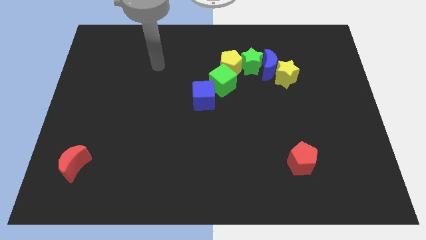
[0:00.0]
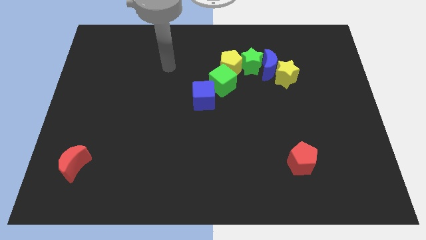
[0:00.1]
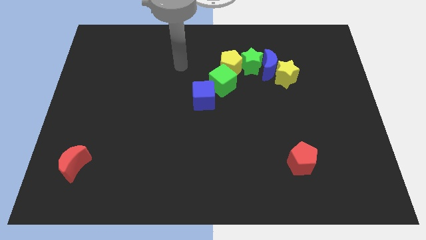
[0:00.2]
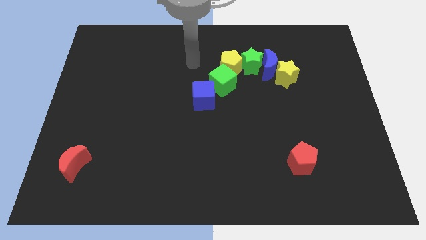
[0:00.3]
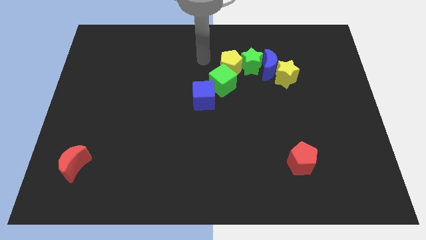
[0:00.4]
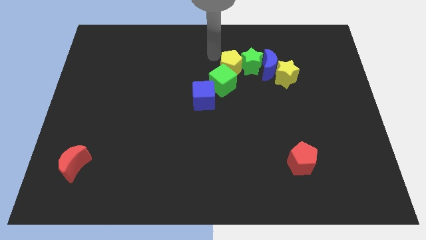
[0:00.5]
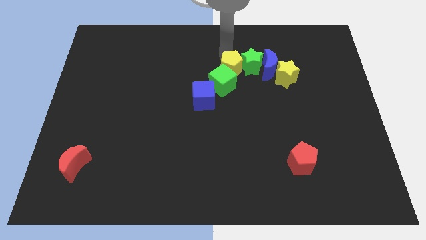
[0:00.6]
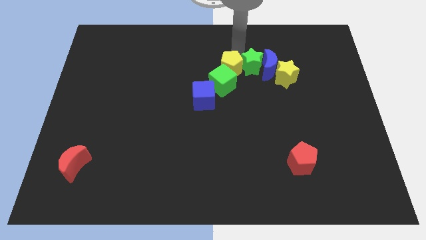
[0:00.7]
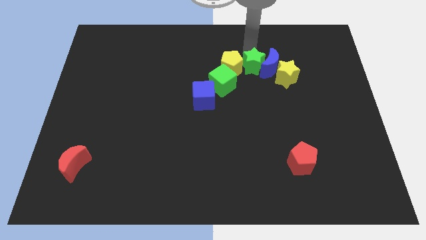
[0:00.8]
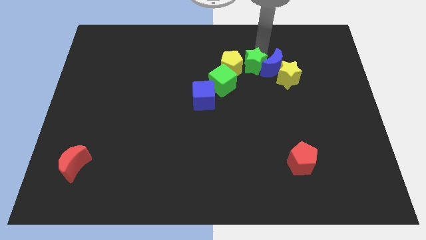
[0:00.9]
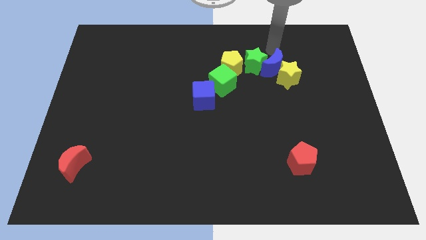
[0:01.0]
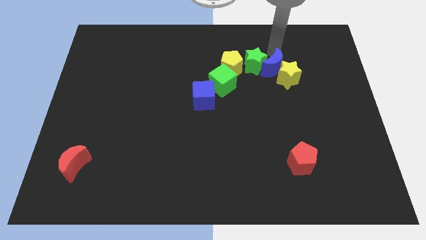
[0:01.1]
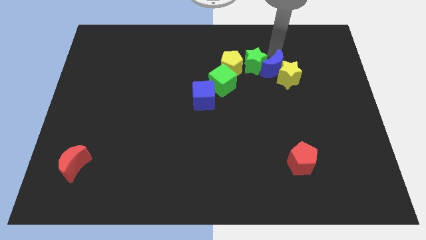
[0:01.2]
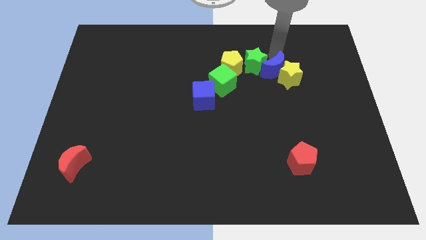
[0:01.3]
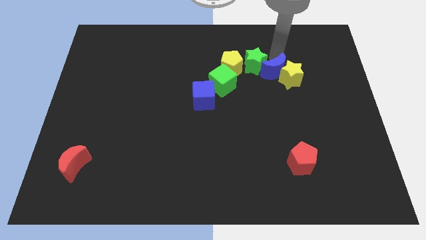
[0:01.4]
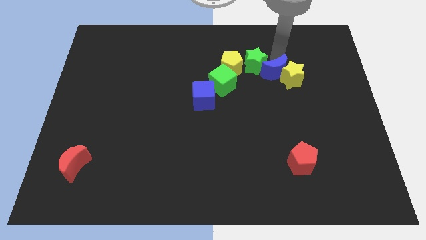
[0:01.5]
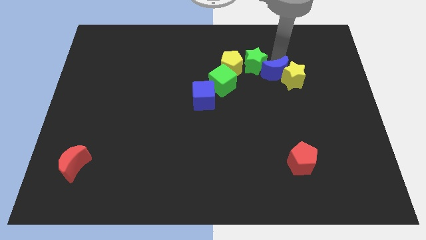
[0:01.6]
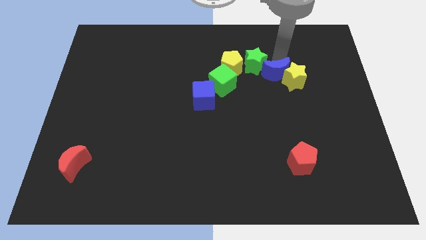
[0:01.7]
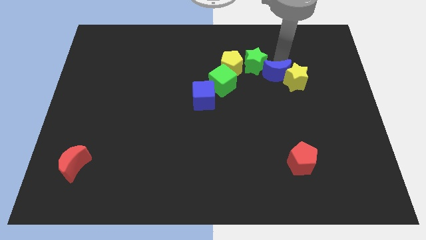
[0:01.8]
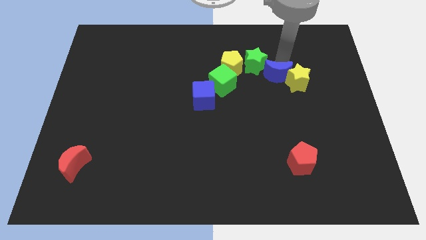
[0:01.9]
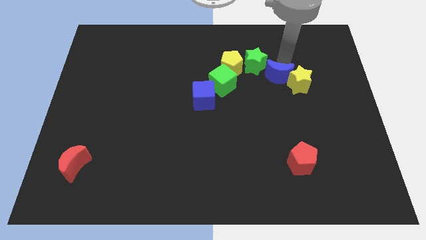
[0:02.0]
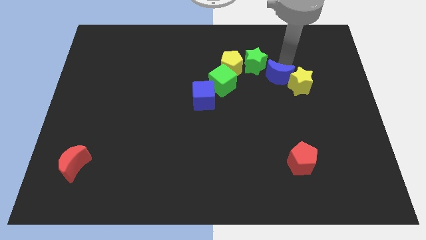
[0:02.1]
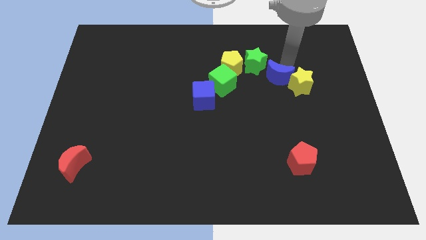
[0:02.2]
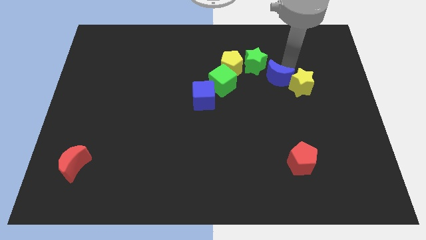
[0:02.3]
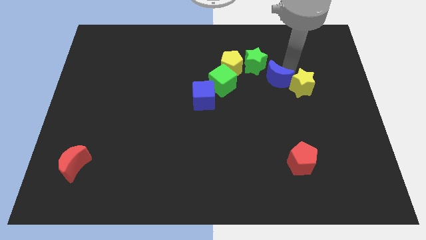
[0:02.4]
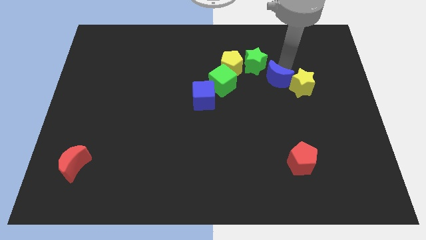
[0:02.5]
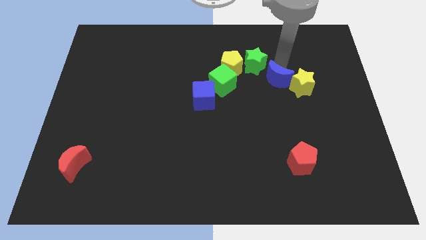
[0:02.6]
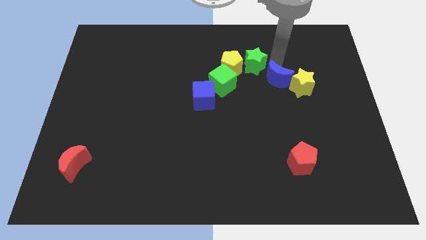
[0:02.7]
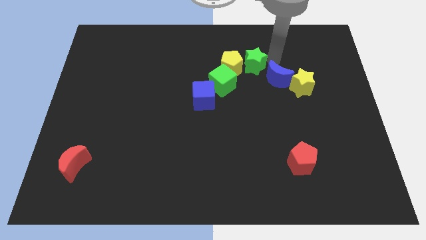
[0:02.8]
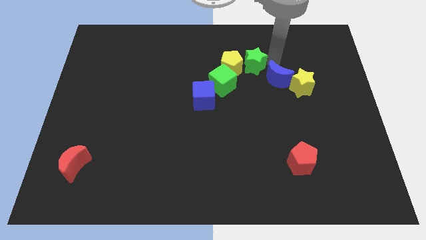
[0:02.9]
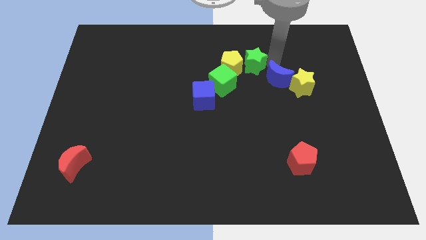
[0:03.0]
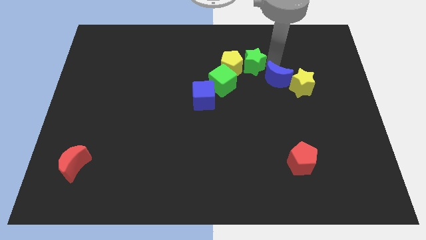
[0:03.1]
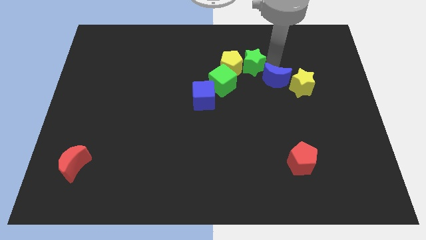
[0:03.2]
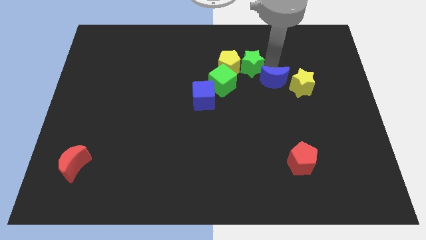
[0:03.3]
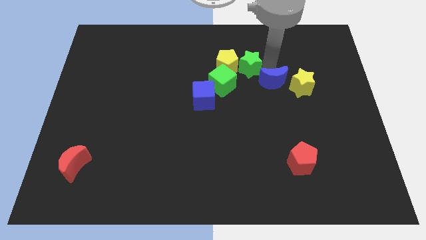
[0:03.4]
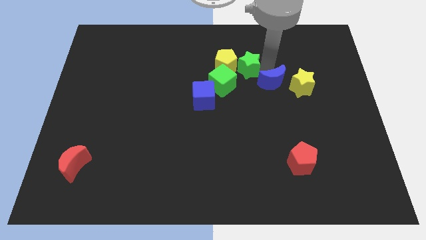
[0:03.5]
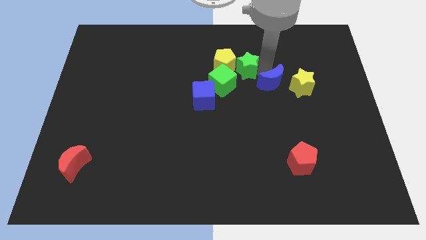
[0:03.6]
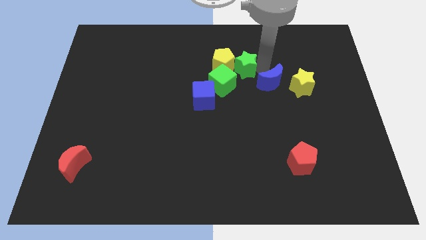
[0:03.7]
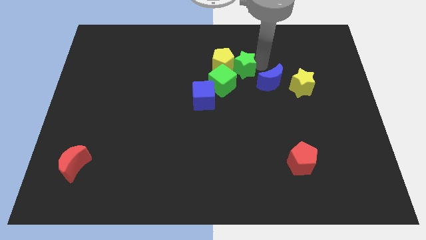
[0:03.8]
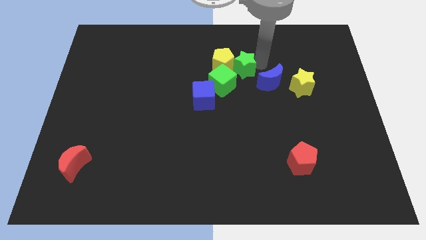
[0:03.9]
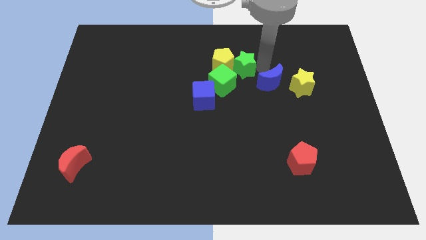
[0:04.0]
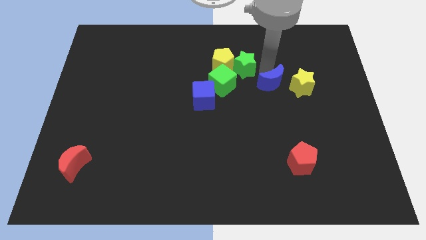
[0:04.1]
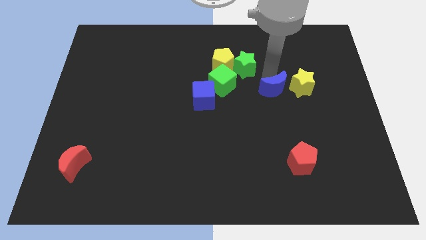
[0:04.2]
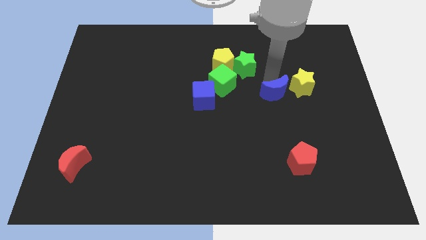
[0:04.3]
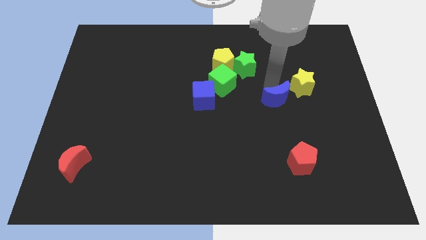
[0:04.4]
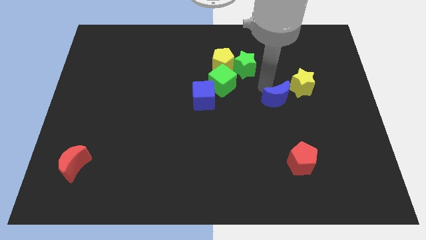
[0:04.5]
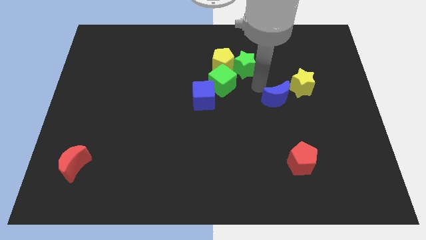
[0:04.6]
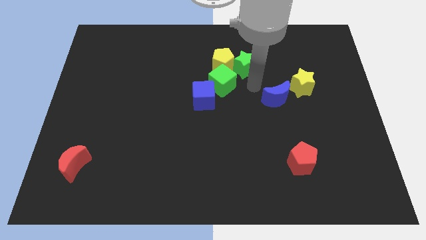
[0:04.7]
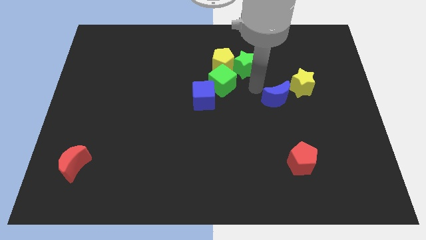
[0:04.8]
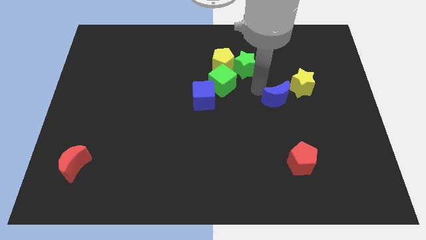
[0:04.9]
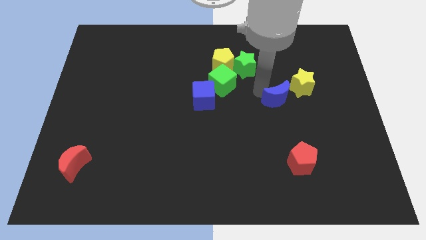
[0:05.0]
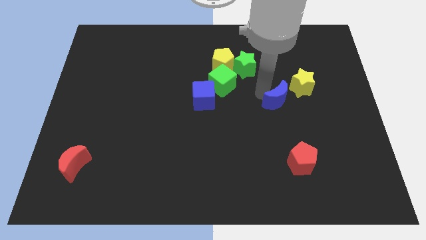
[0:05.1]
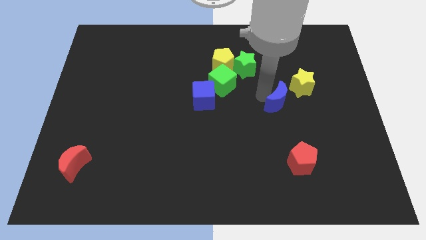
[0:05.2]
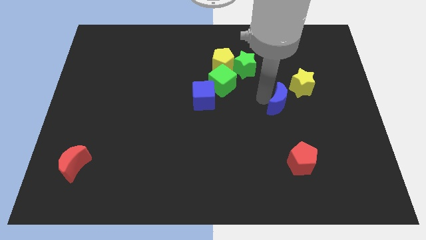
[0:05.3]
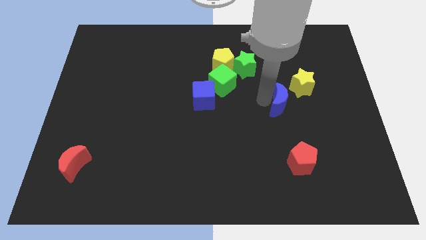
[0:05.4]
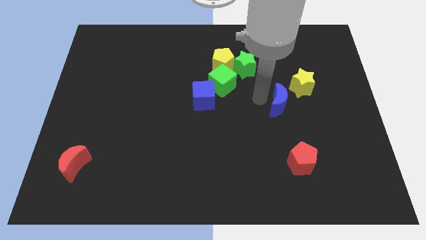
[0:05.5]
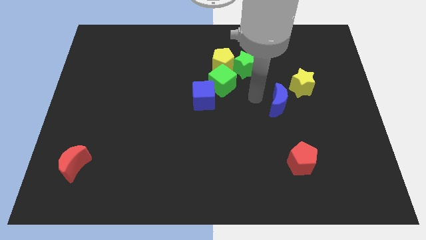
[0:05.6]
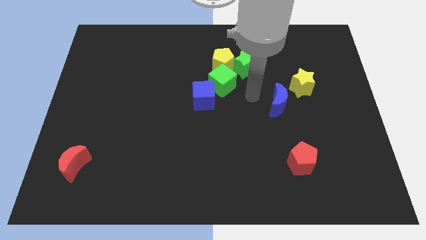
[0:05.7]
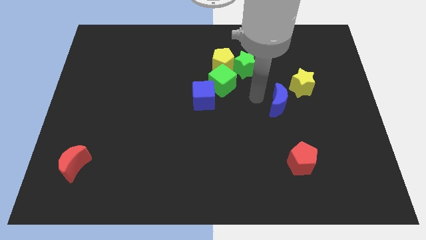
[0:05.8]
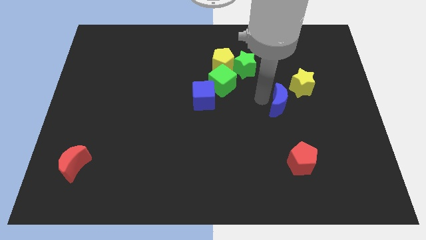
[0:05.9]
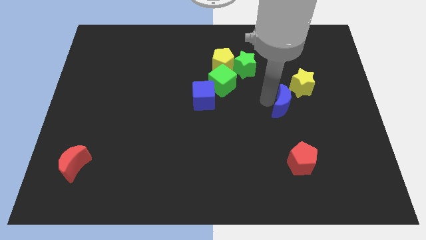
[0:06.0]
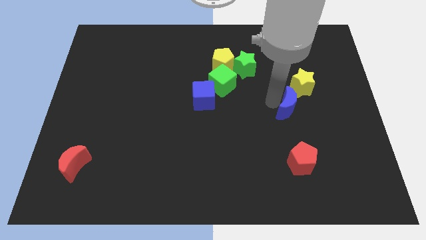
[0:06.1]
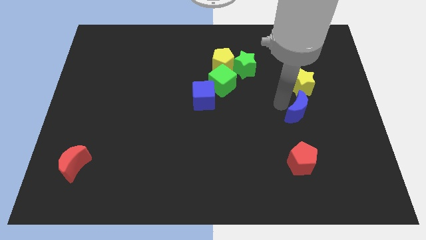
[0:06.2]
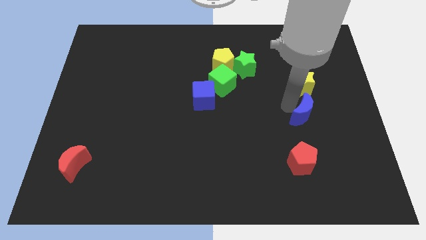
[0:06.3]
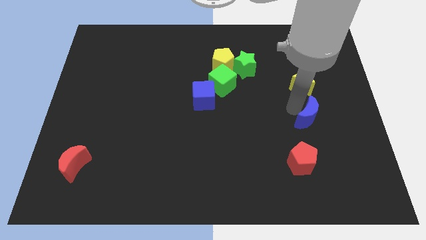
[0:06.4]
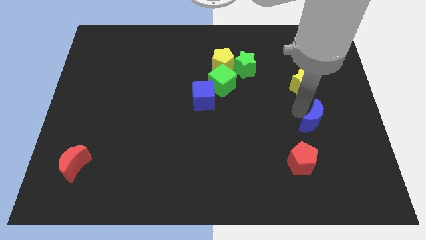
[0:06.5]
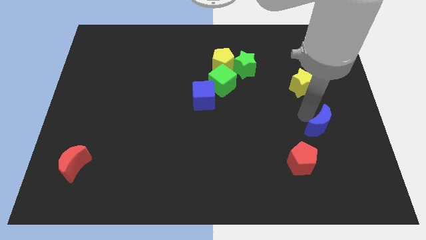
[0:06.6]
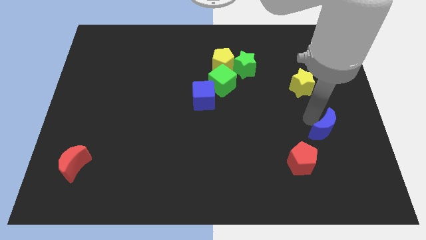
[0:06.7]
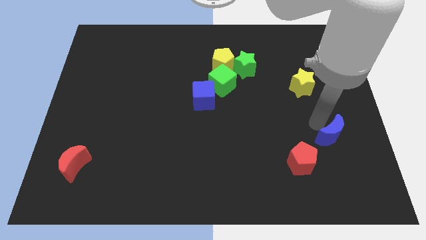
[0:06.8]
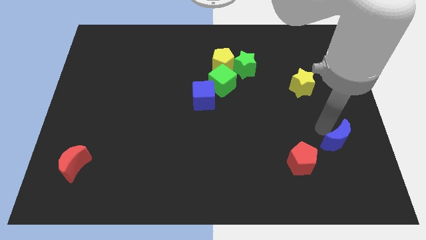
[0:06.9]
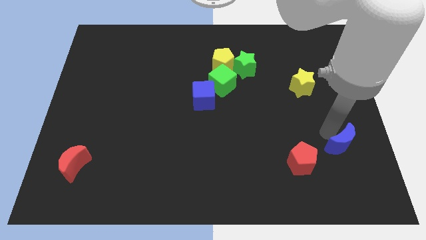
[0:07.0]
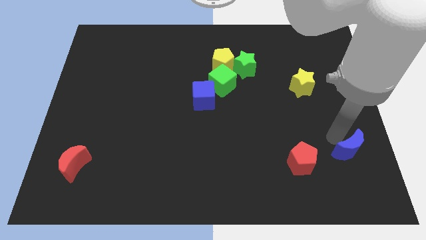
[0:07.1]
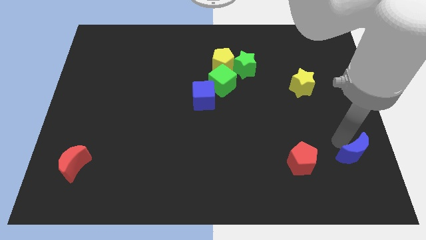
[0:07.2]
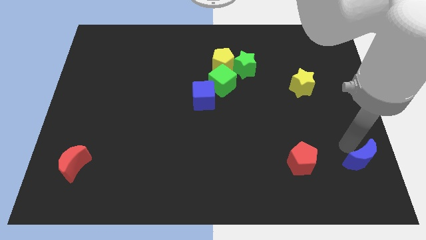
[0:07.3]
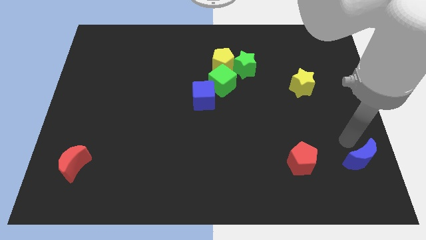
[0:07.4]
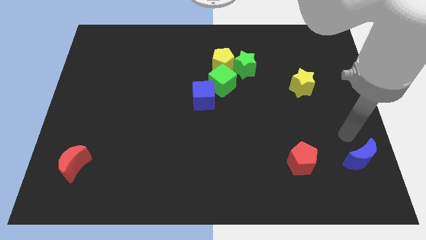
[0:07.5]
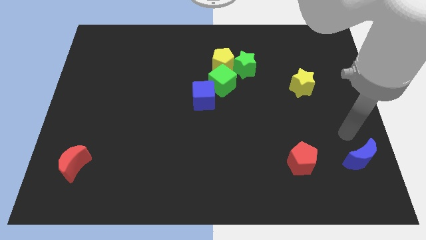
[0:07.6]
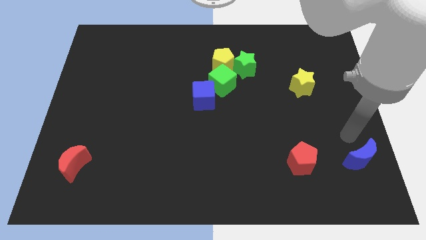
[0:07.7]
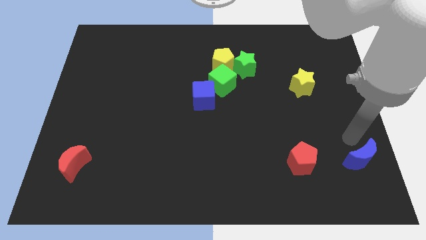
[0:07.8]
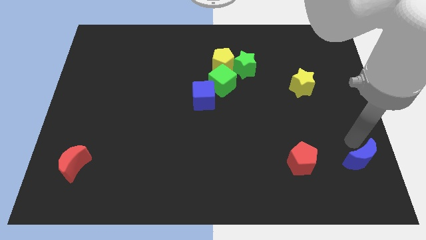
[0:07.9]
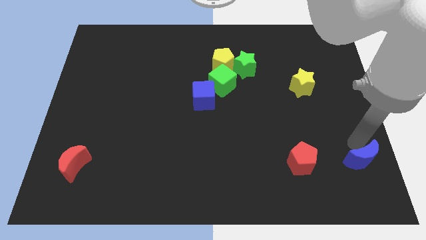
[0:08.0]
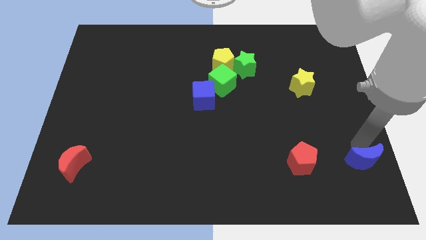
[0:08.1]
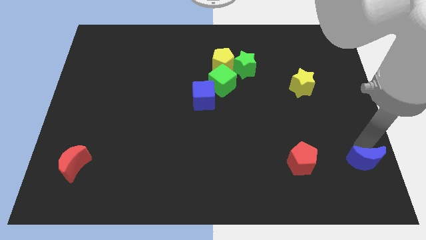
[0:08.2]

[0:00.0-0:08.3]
move the blue moon to the bottom right corner
